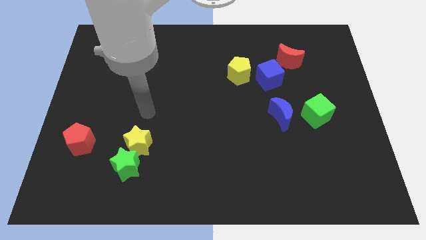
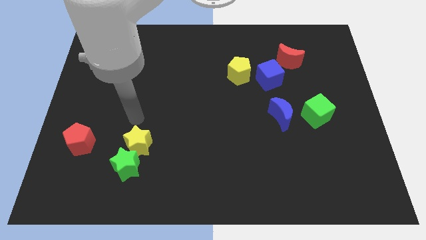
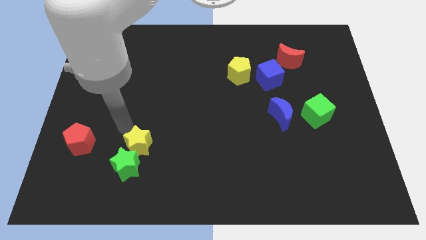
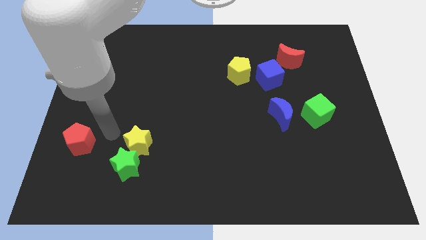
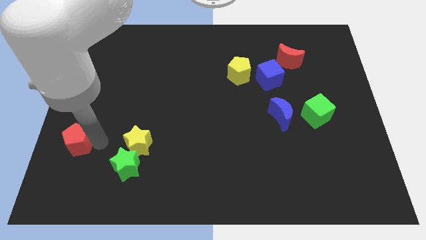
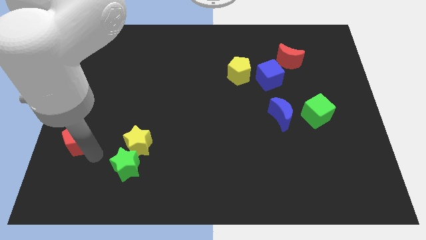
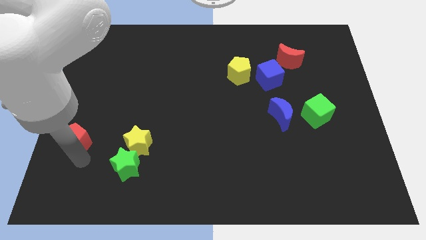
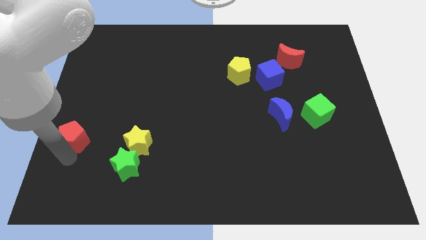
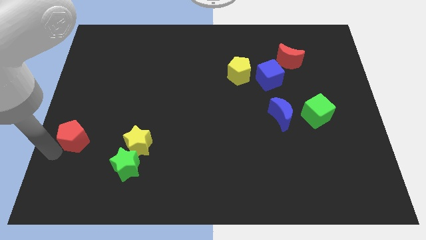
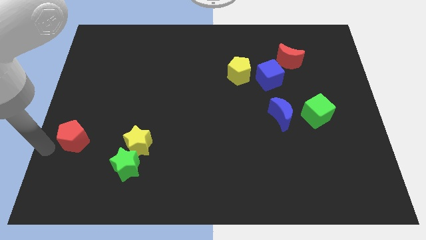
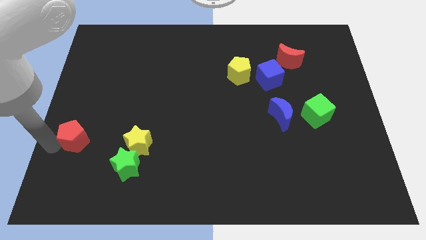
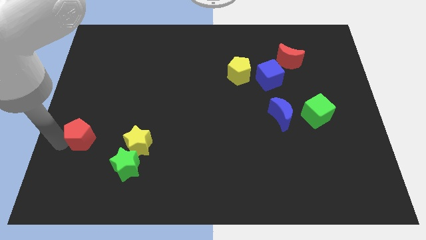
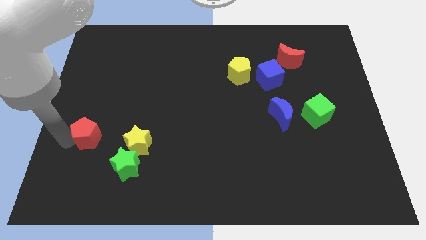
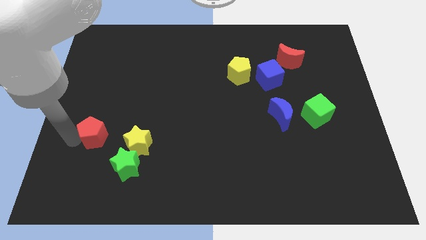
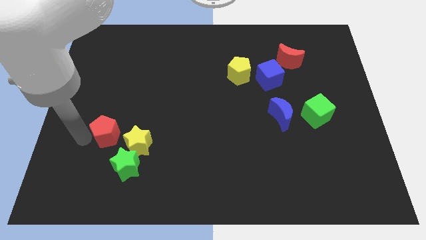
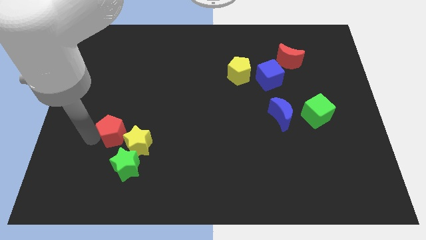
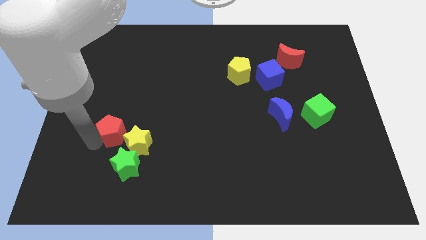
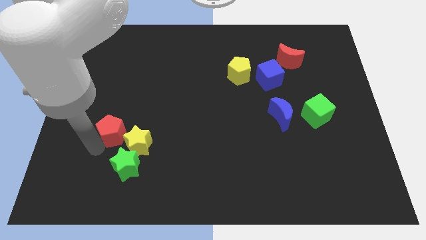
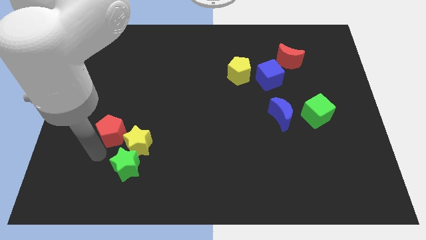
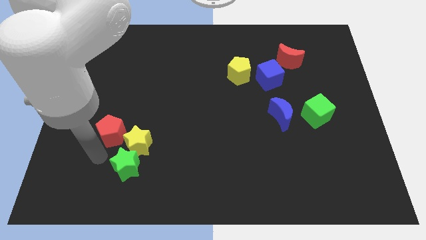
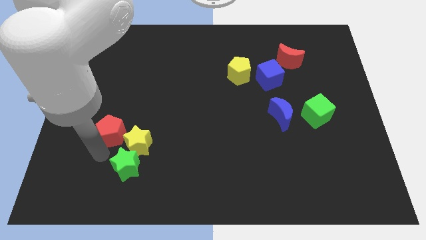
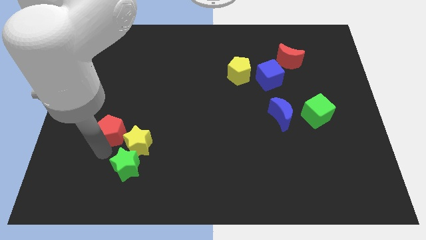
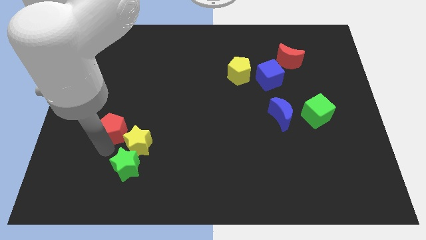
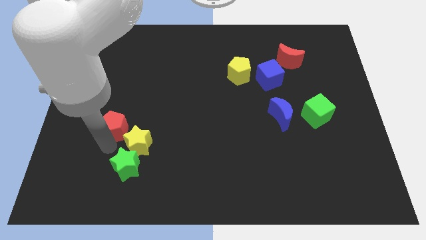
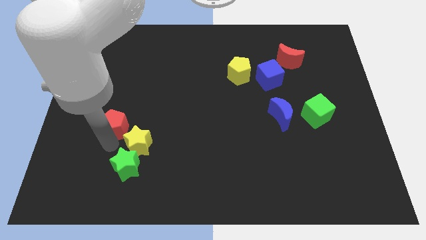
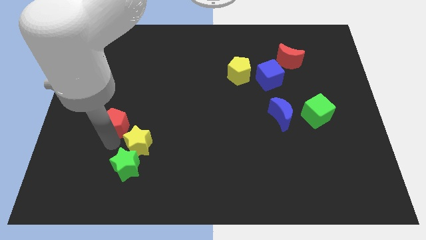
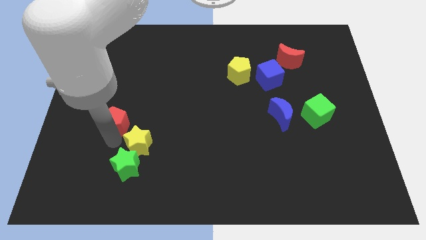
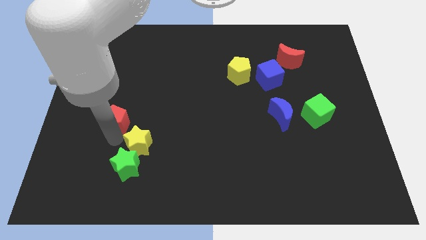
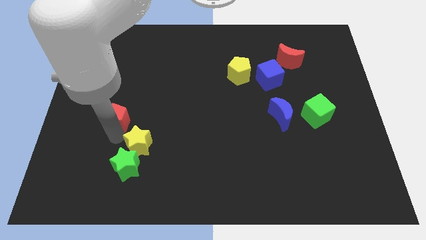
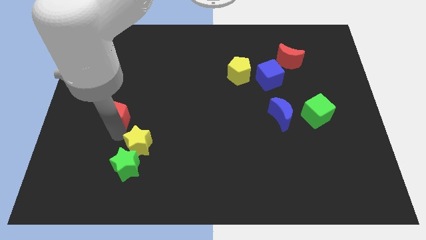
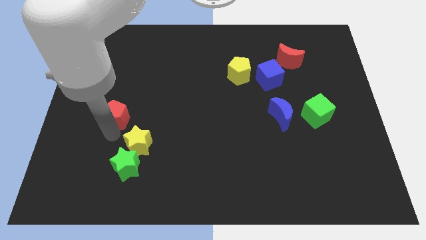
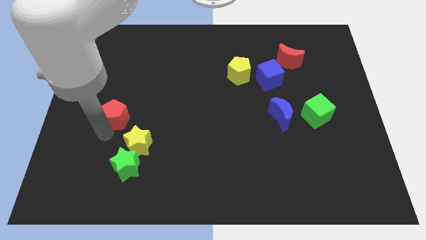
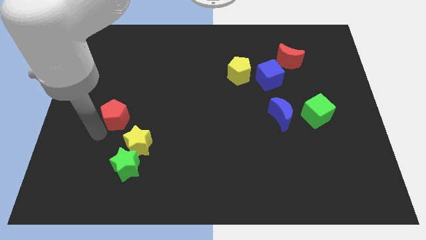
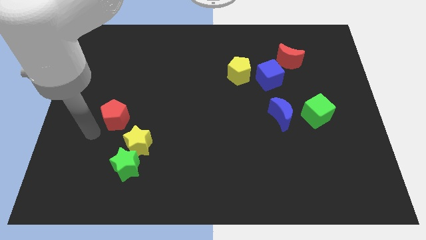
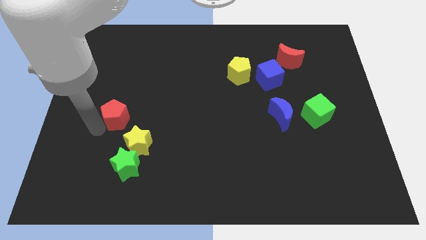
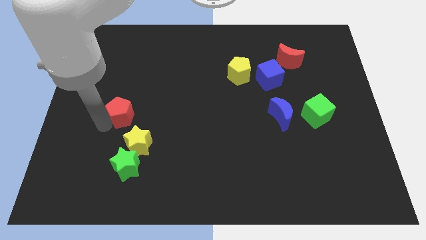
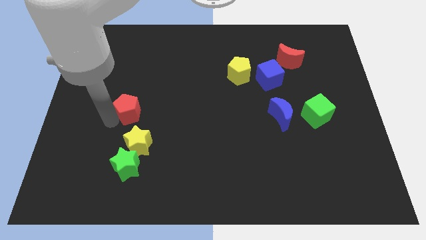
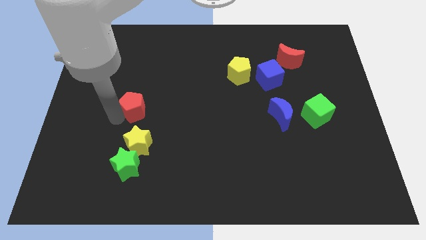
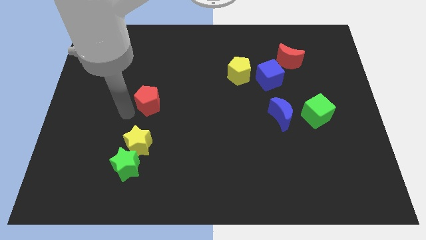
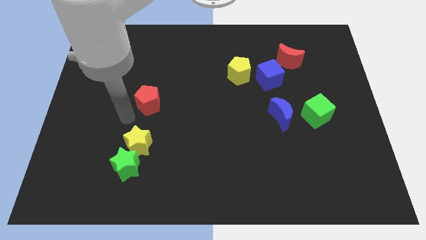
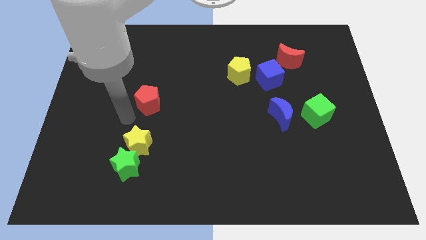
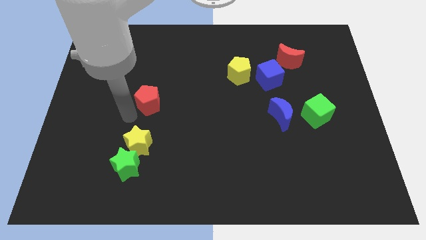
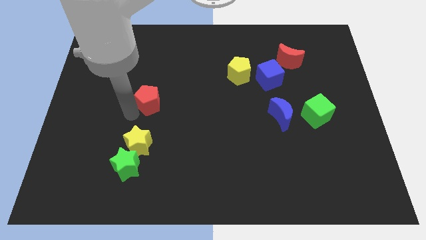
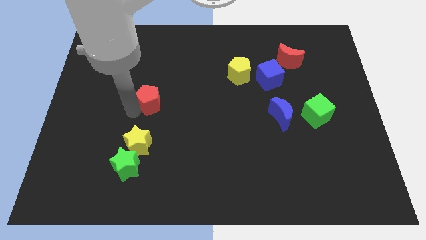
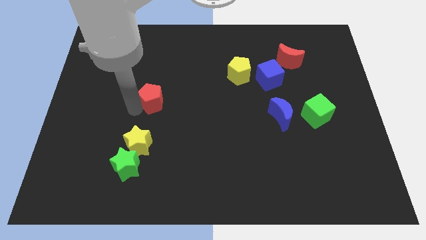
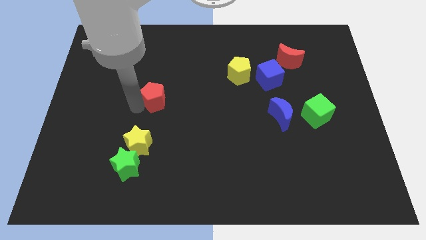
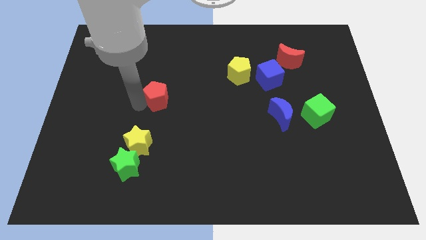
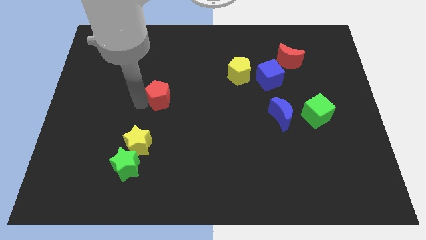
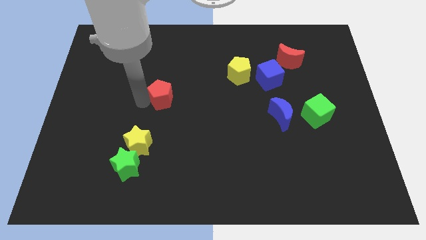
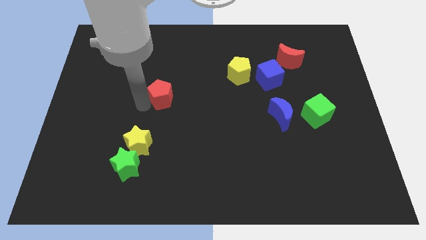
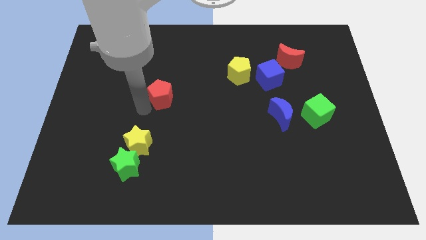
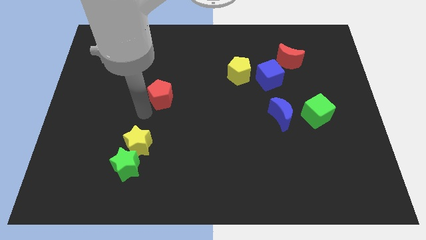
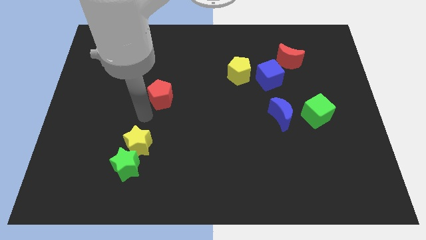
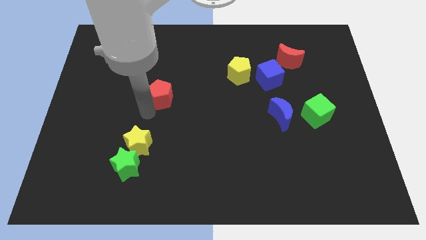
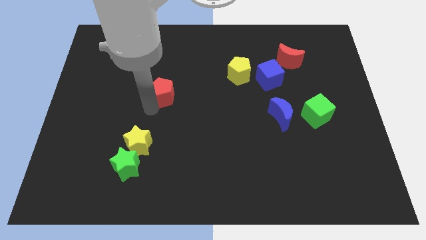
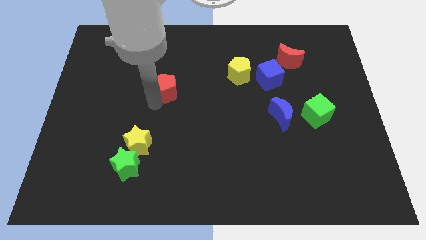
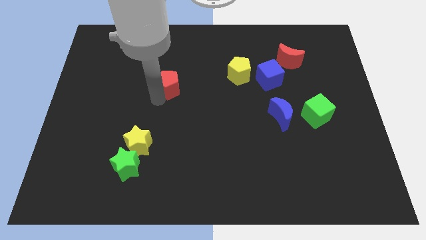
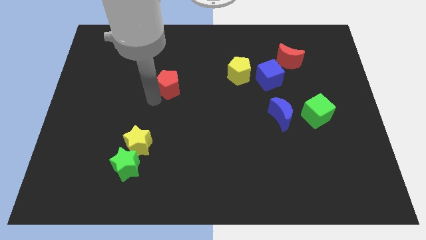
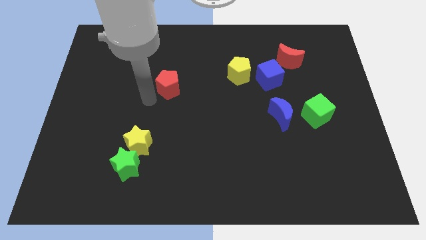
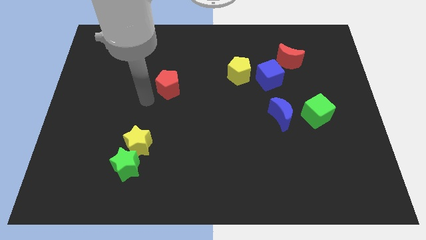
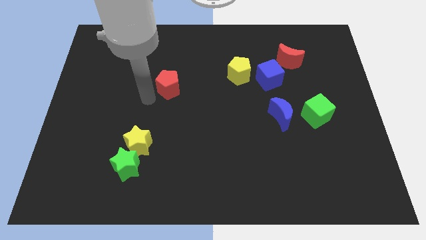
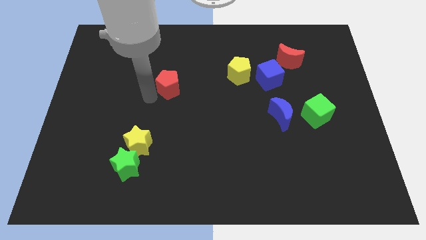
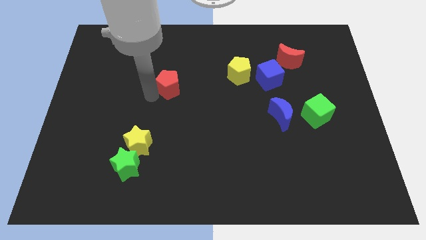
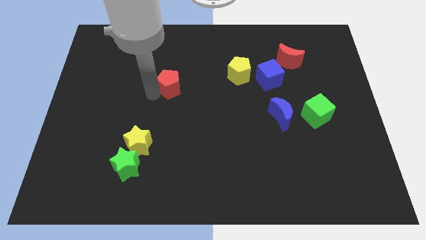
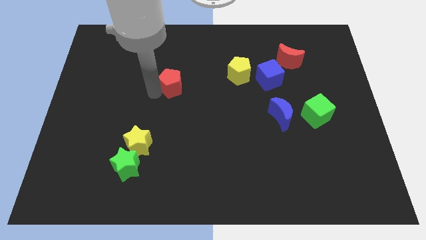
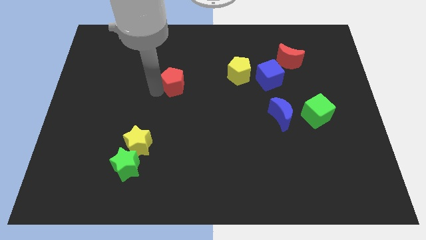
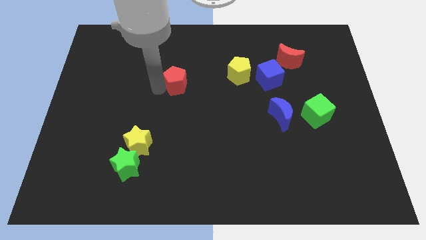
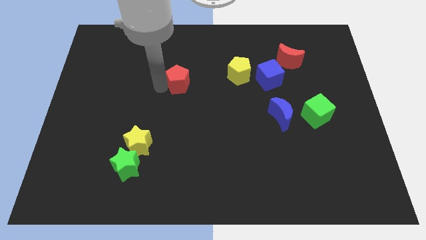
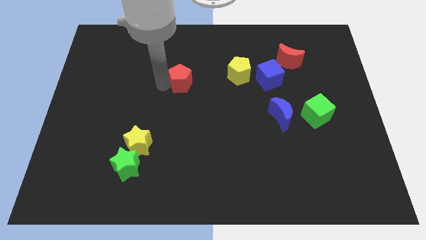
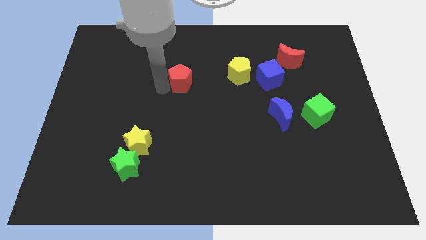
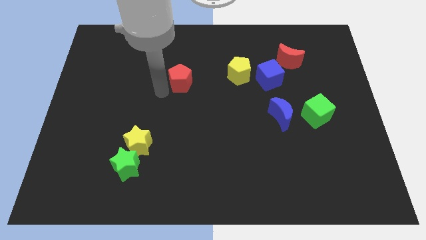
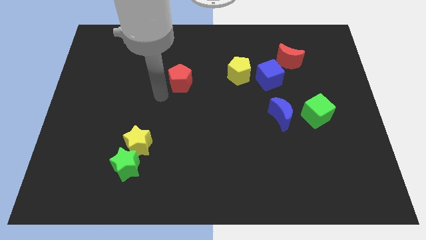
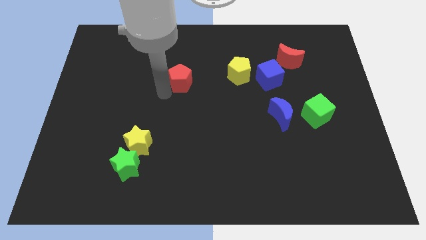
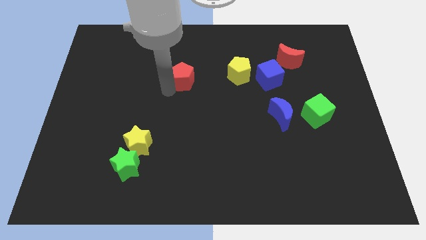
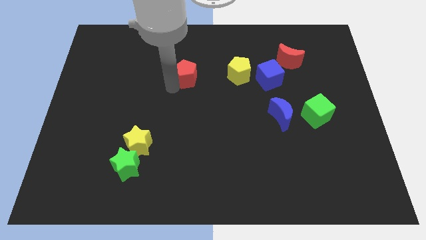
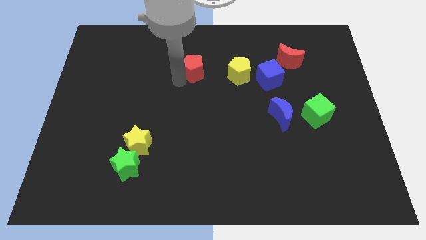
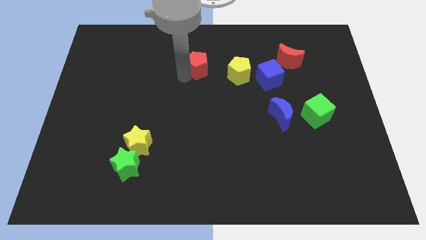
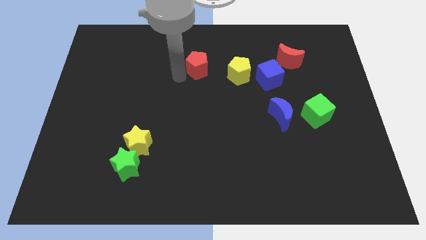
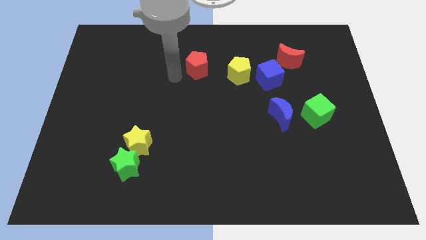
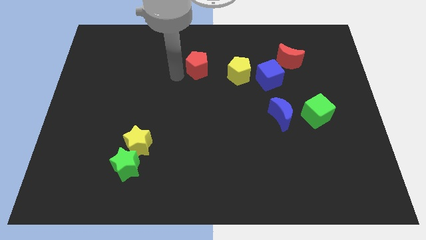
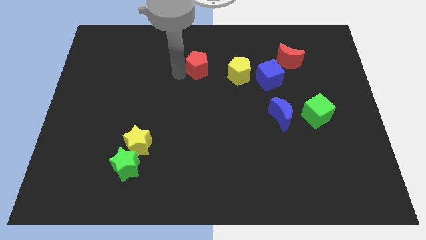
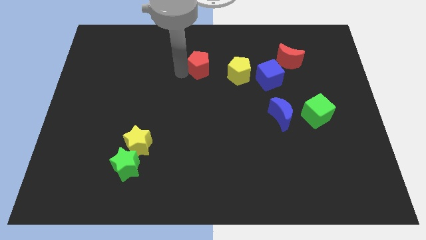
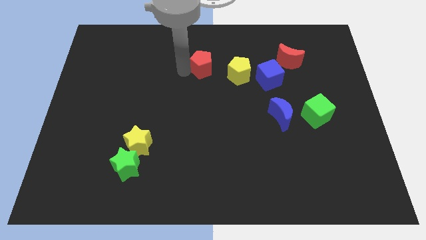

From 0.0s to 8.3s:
put the red pentagon to the top left of the yellow pentagon
